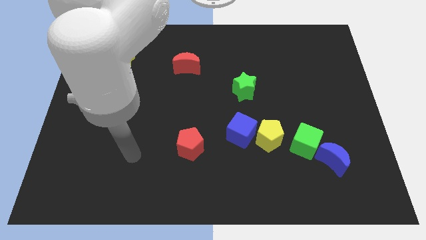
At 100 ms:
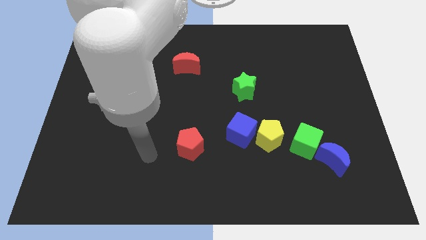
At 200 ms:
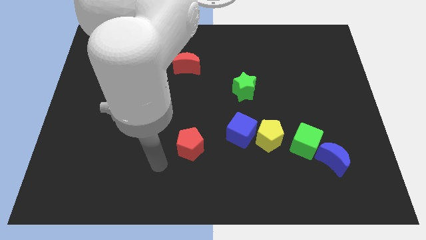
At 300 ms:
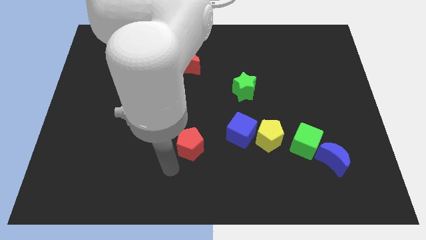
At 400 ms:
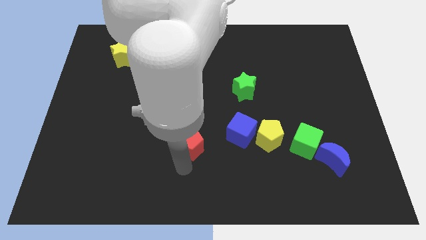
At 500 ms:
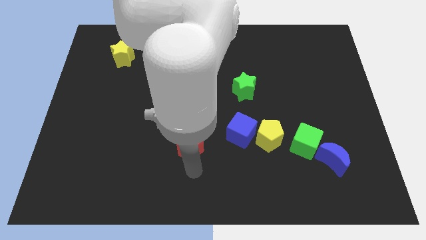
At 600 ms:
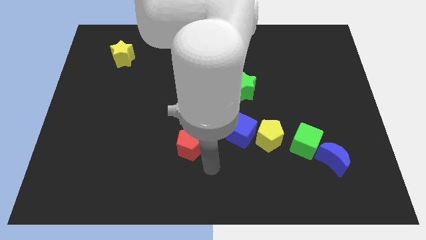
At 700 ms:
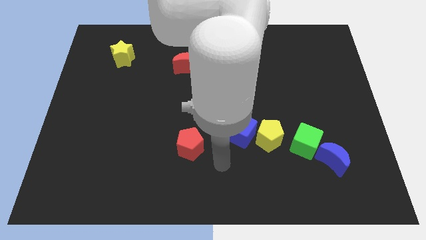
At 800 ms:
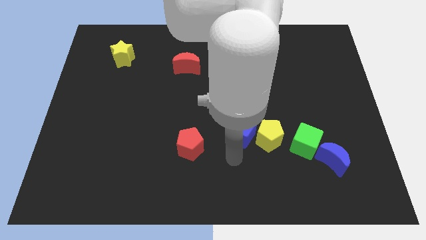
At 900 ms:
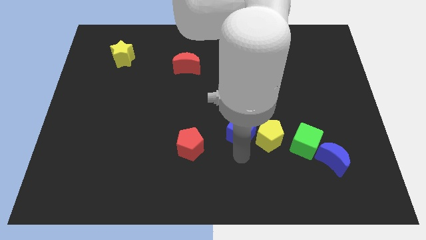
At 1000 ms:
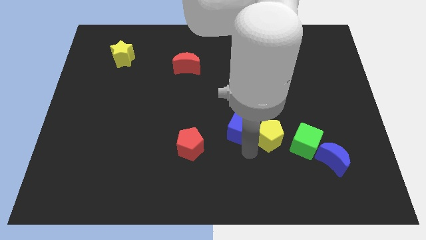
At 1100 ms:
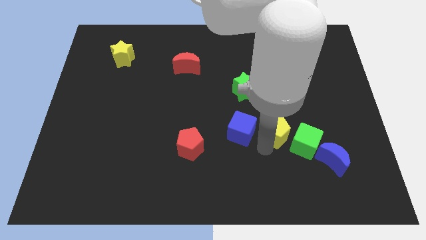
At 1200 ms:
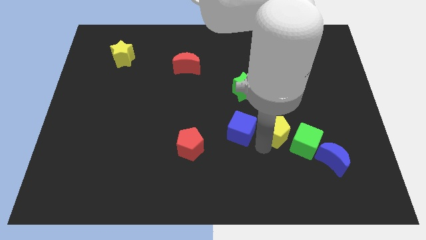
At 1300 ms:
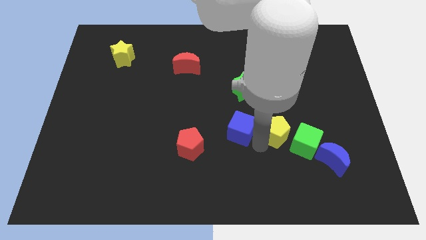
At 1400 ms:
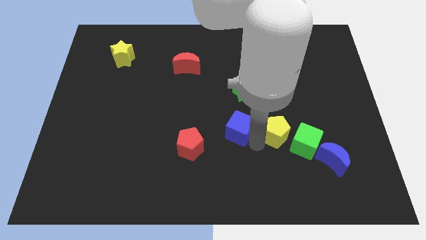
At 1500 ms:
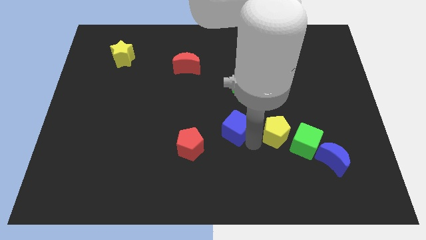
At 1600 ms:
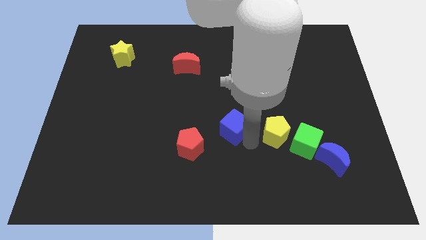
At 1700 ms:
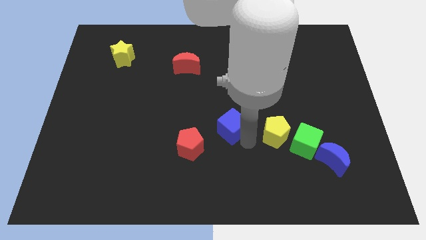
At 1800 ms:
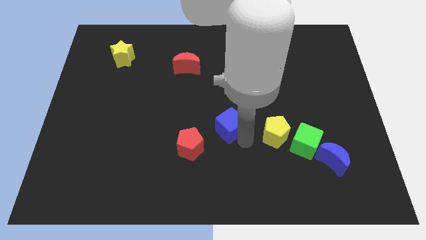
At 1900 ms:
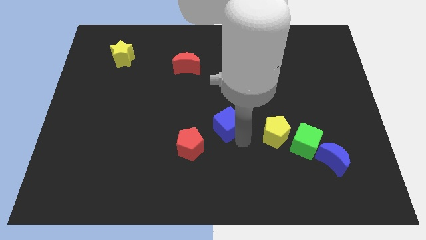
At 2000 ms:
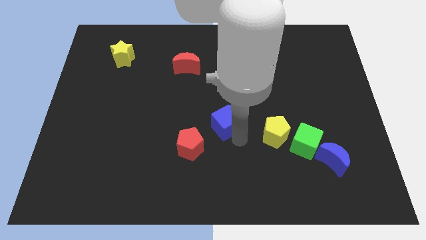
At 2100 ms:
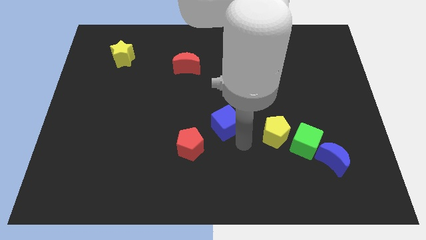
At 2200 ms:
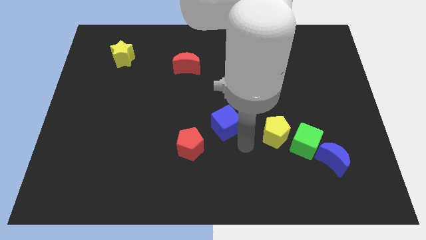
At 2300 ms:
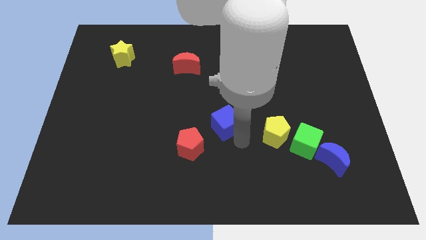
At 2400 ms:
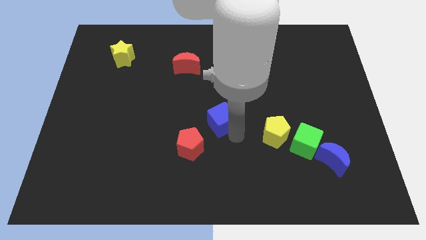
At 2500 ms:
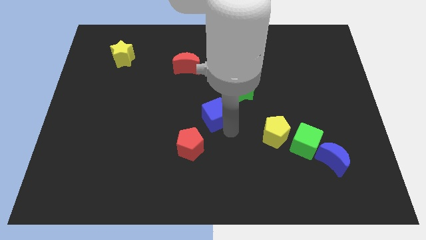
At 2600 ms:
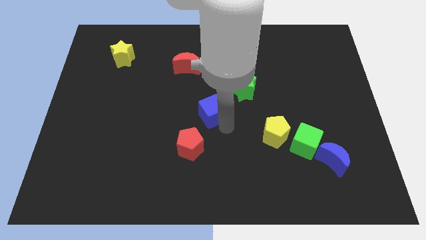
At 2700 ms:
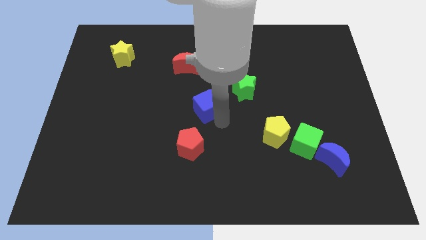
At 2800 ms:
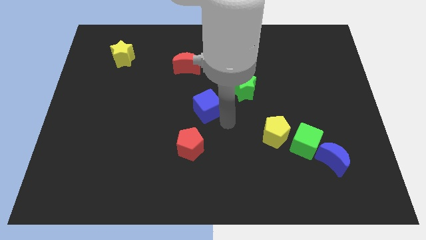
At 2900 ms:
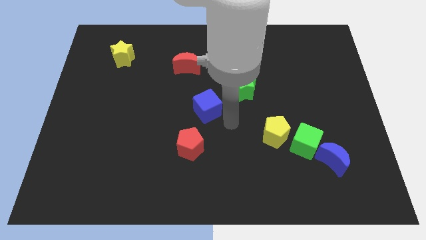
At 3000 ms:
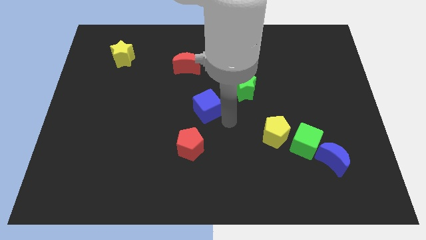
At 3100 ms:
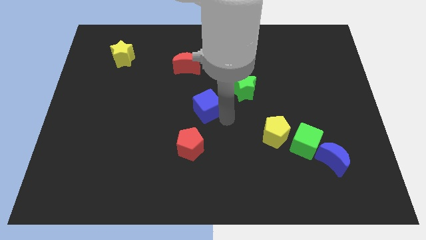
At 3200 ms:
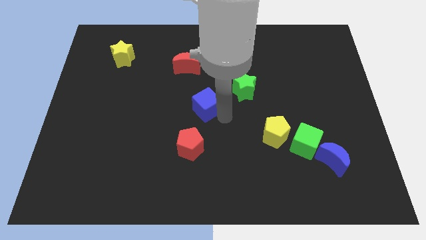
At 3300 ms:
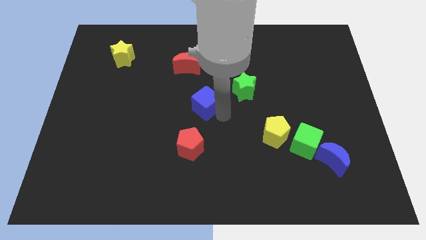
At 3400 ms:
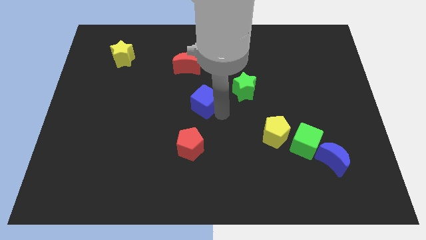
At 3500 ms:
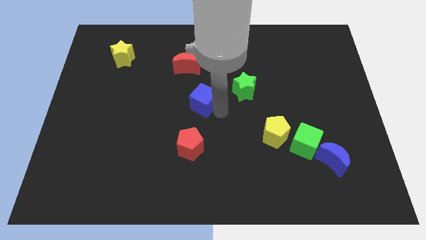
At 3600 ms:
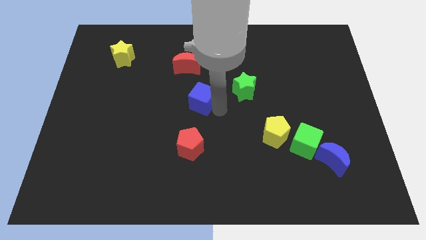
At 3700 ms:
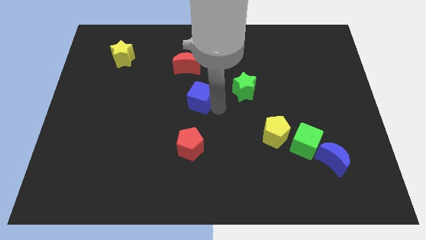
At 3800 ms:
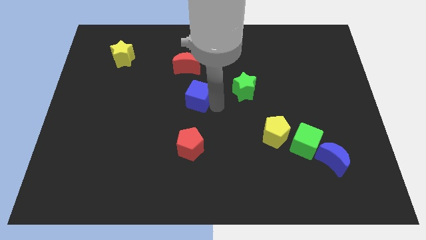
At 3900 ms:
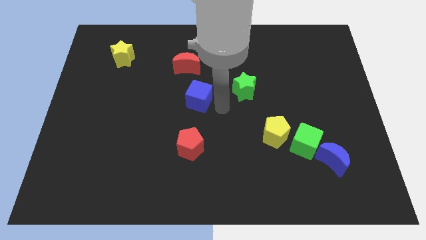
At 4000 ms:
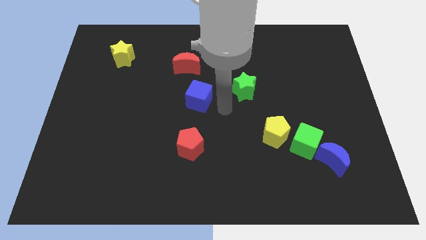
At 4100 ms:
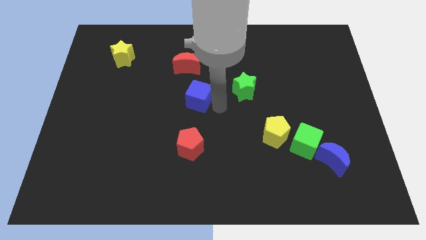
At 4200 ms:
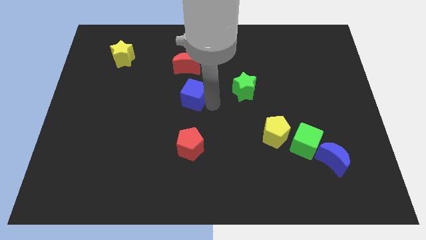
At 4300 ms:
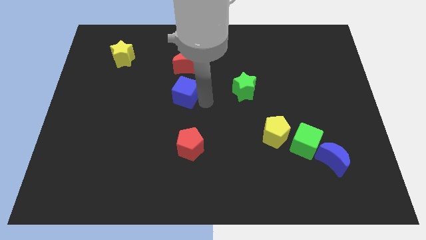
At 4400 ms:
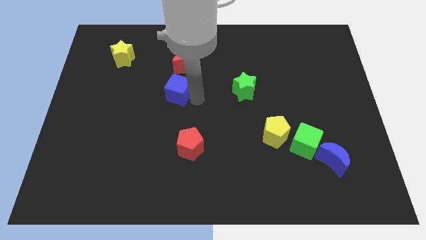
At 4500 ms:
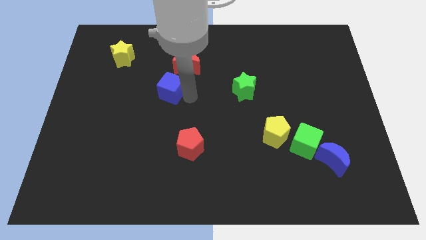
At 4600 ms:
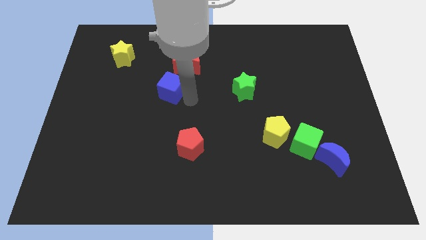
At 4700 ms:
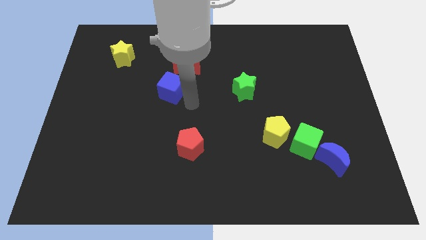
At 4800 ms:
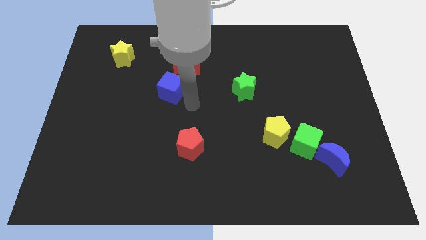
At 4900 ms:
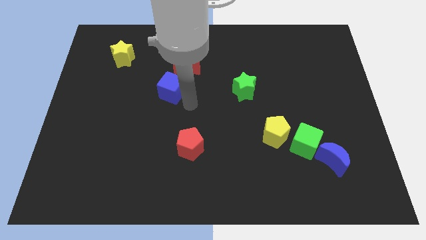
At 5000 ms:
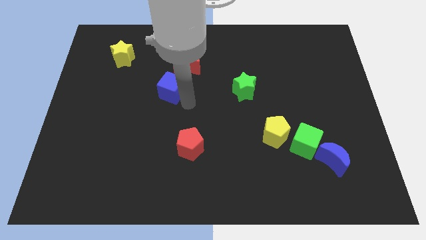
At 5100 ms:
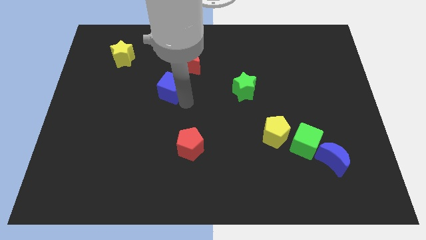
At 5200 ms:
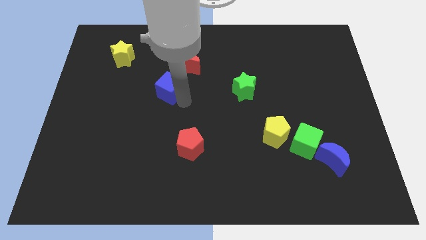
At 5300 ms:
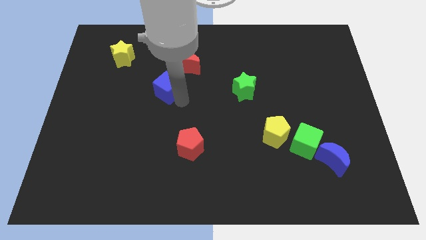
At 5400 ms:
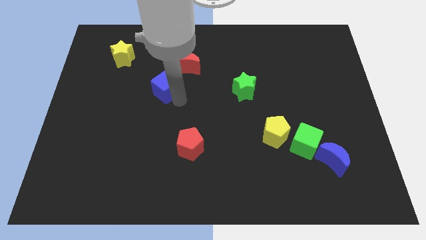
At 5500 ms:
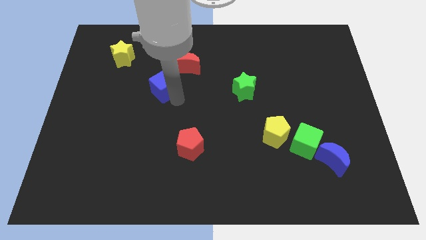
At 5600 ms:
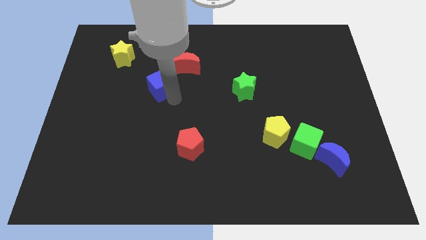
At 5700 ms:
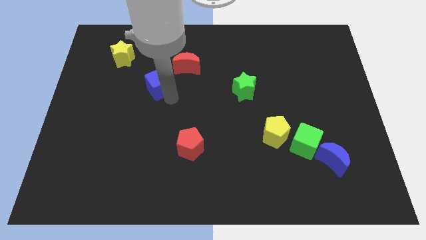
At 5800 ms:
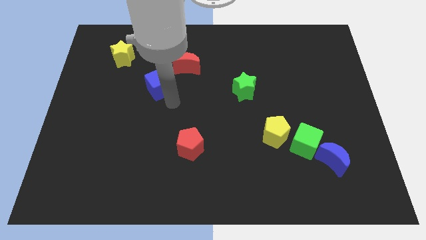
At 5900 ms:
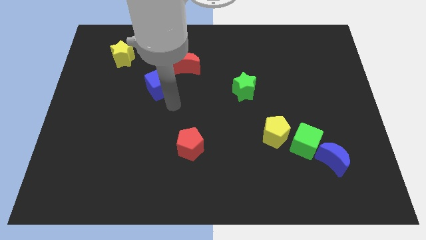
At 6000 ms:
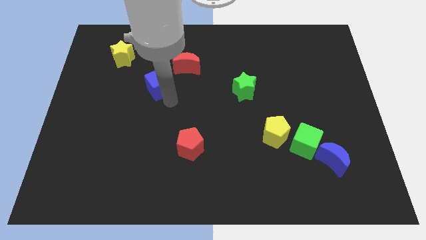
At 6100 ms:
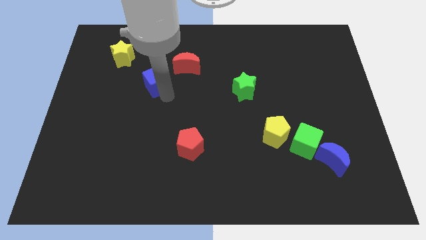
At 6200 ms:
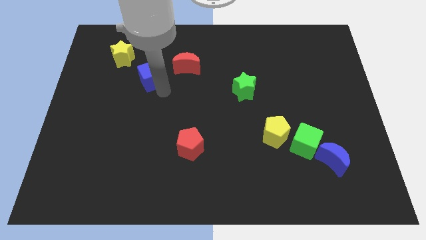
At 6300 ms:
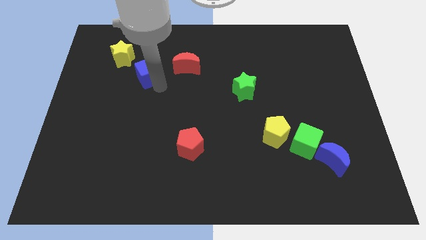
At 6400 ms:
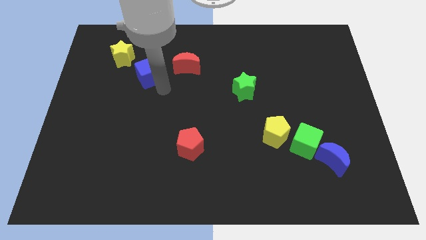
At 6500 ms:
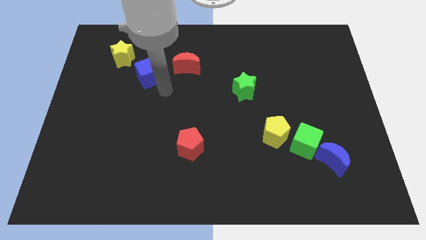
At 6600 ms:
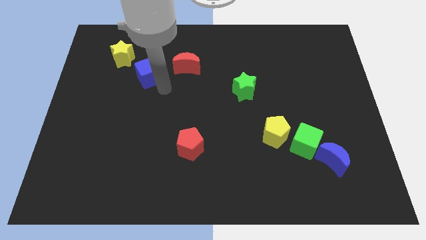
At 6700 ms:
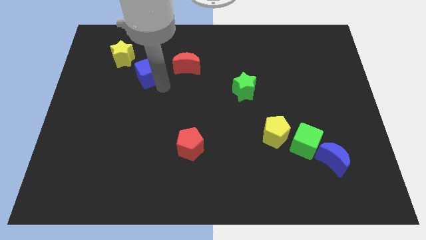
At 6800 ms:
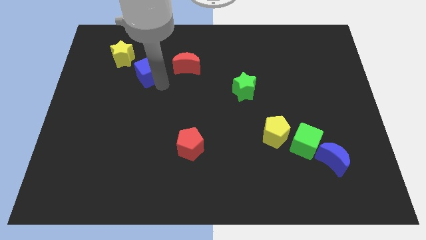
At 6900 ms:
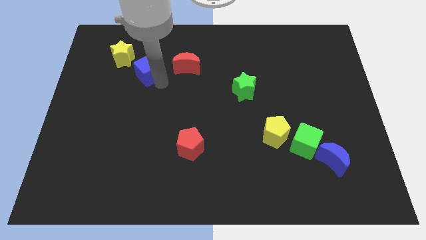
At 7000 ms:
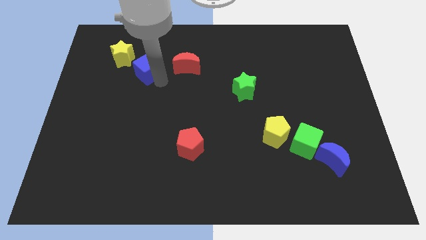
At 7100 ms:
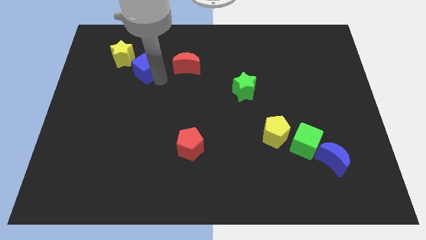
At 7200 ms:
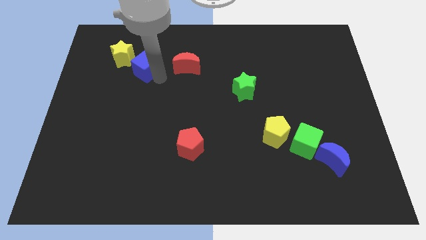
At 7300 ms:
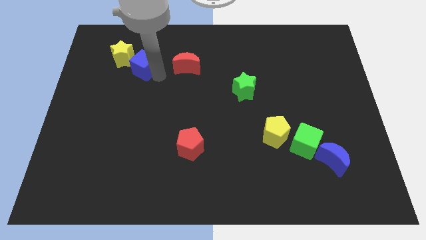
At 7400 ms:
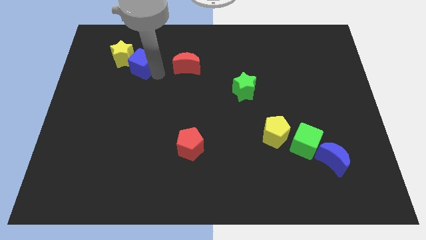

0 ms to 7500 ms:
put the blue cube close to the yellow star

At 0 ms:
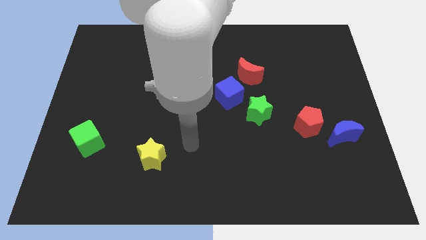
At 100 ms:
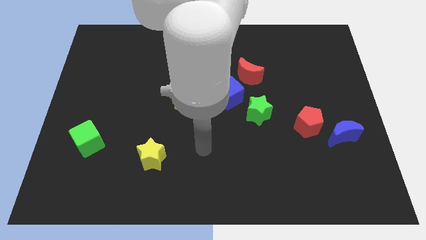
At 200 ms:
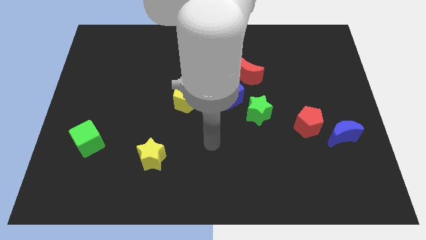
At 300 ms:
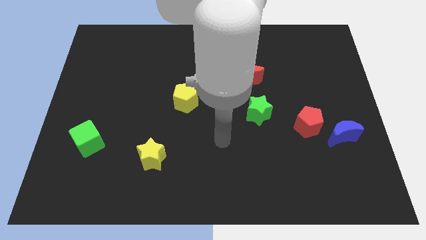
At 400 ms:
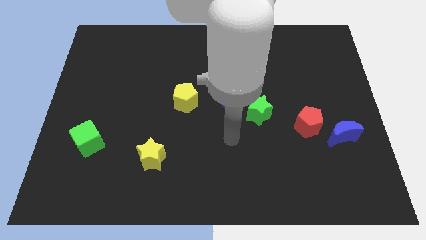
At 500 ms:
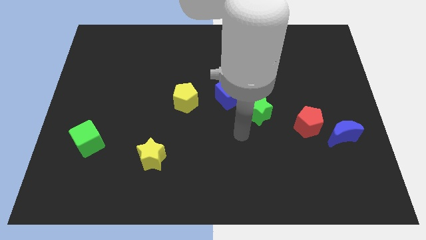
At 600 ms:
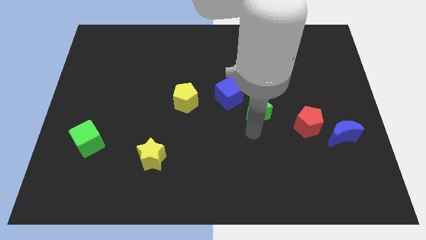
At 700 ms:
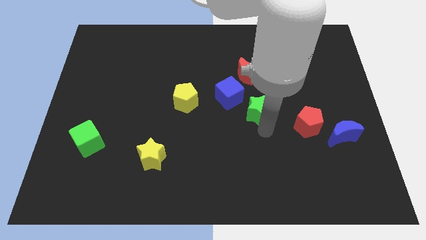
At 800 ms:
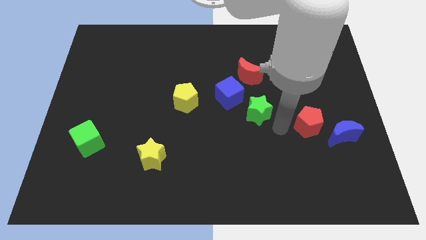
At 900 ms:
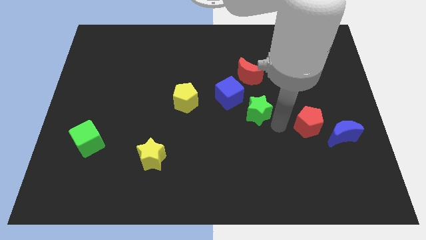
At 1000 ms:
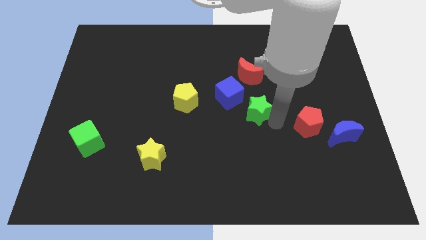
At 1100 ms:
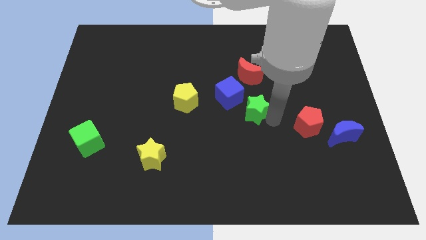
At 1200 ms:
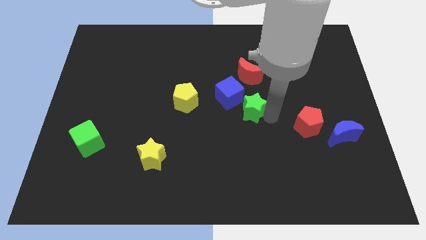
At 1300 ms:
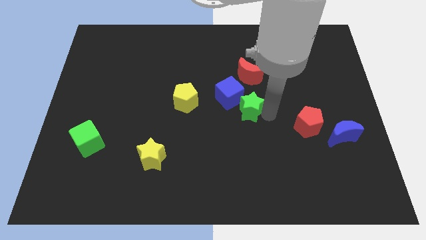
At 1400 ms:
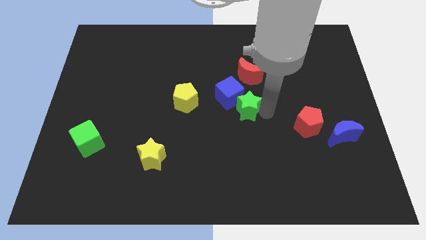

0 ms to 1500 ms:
push the green star close to the blue cube
